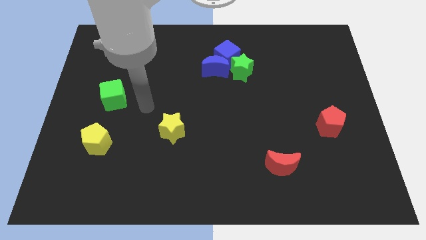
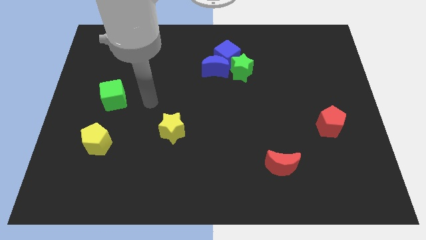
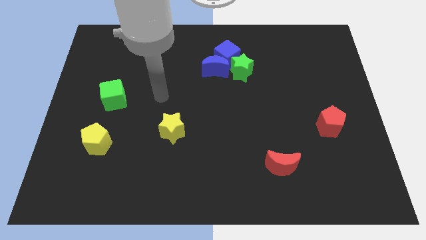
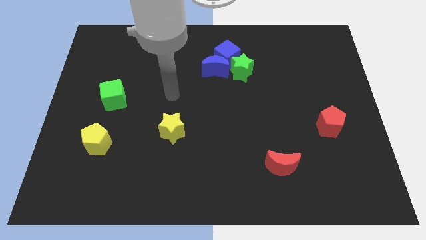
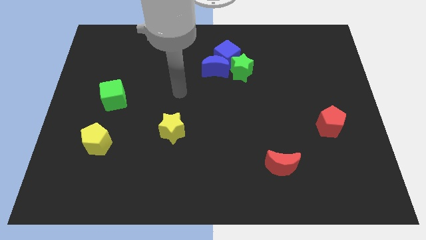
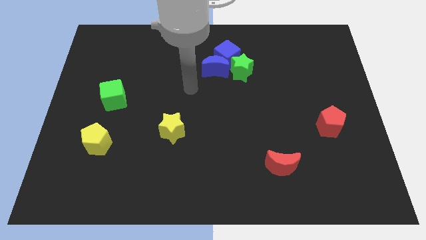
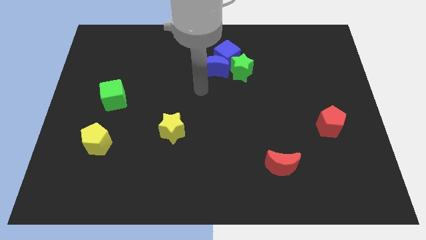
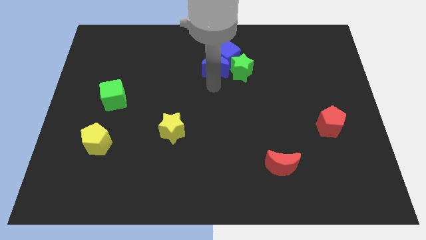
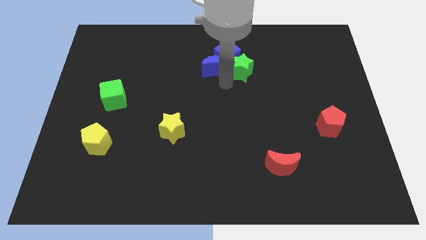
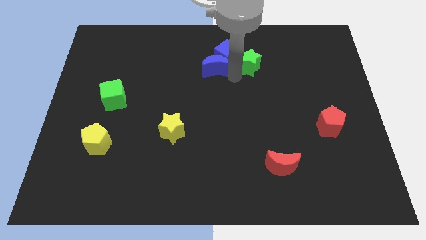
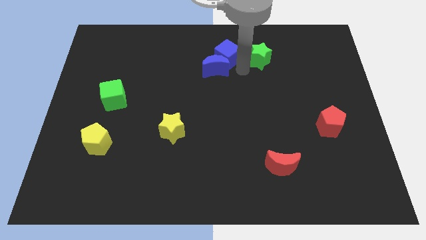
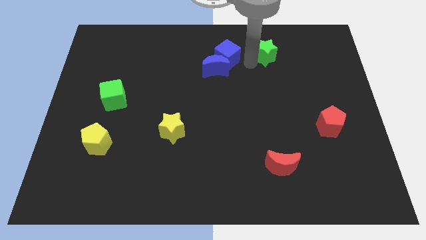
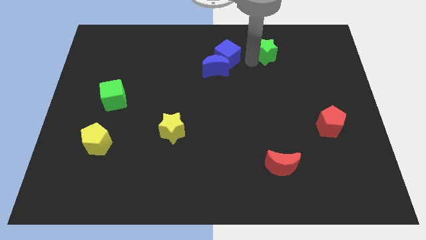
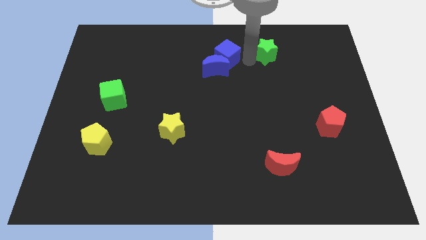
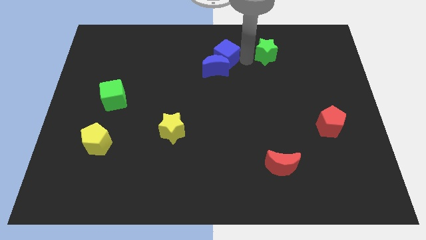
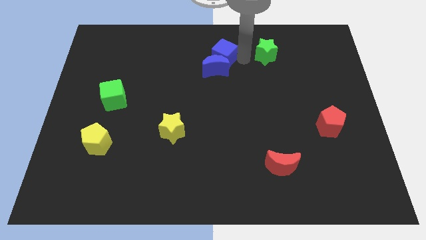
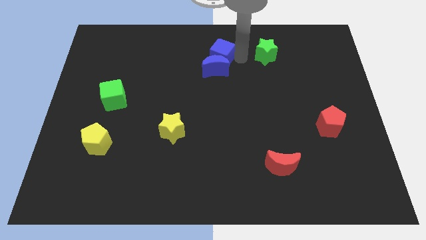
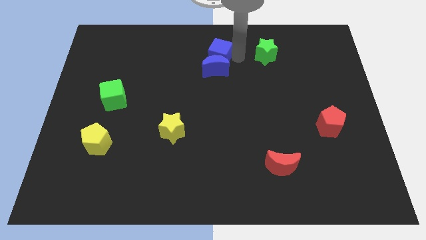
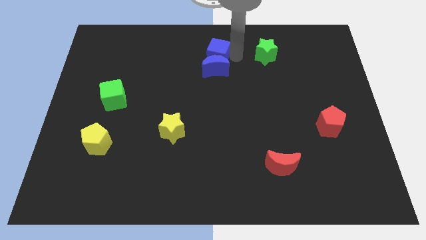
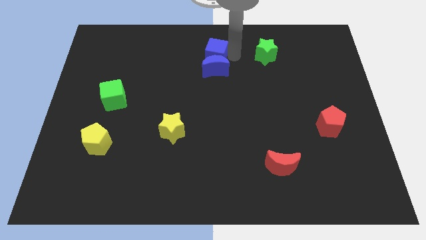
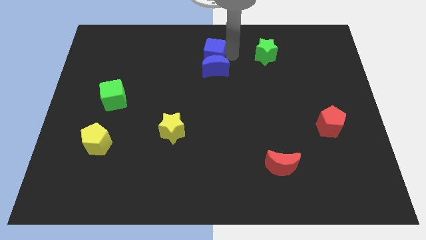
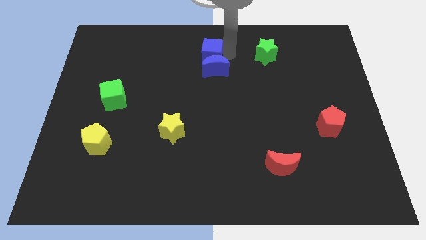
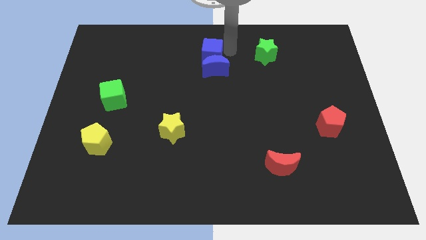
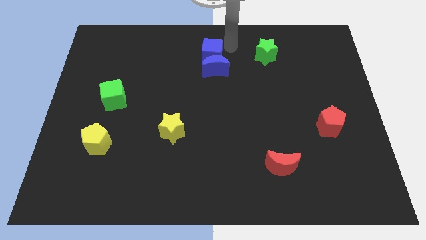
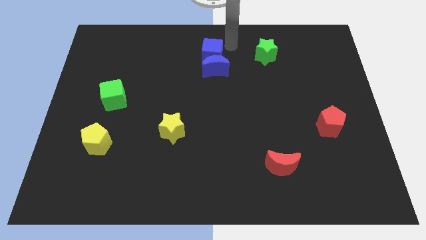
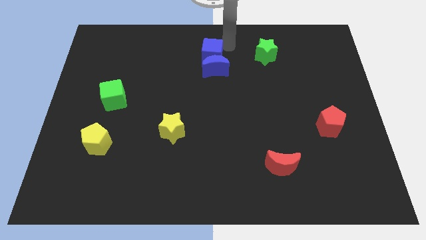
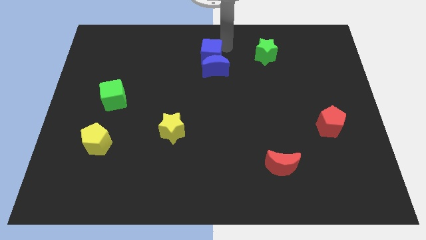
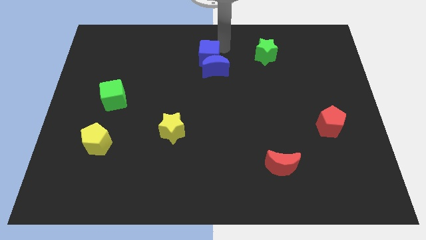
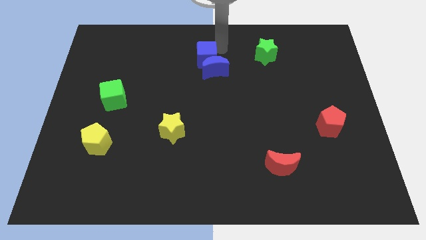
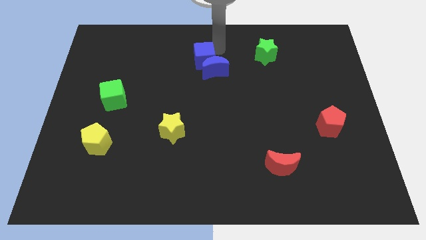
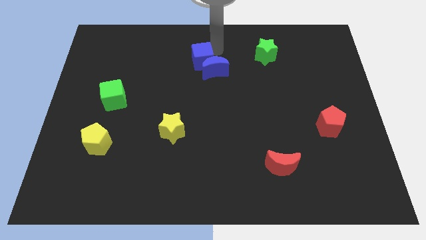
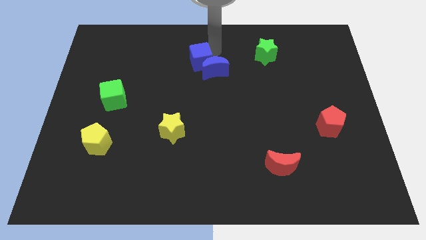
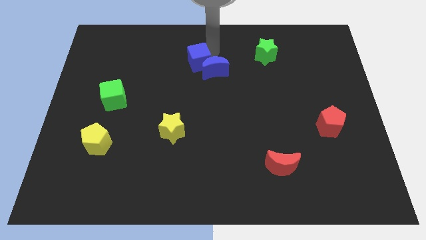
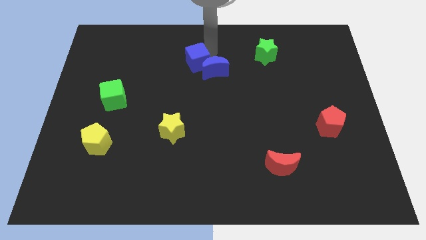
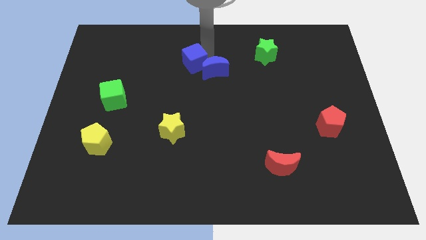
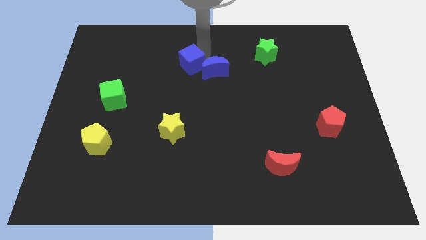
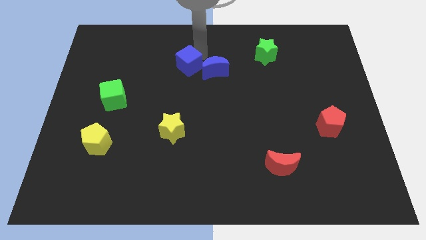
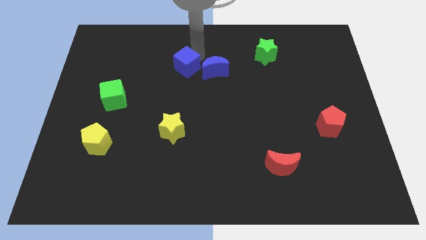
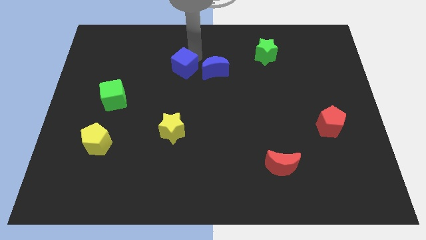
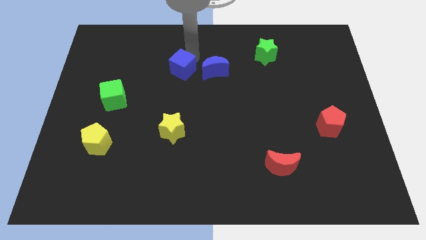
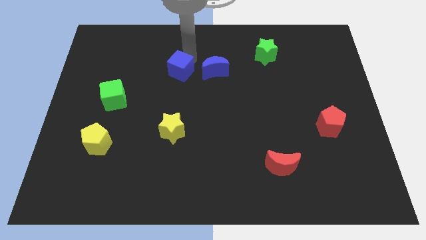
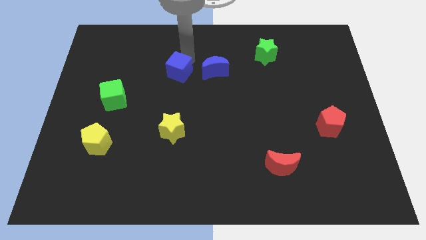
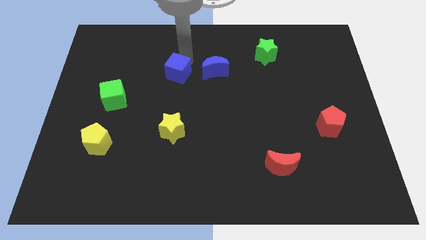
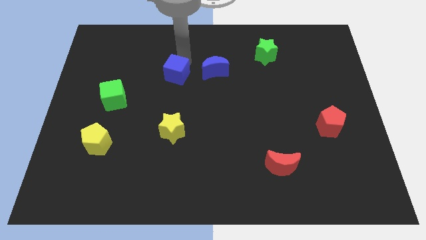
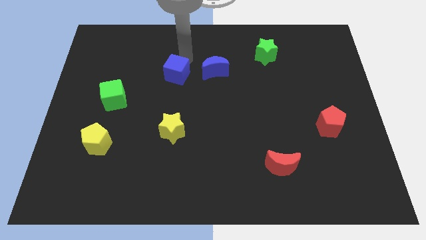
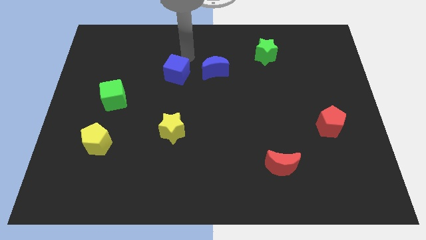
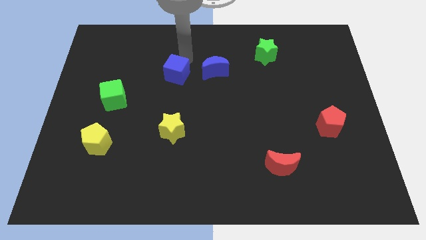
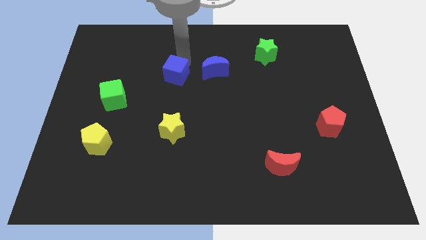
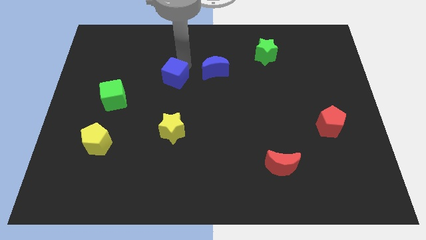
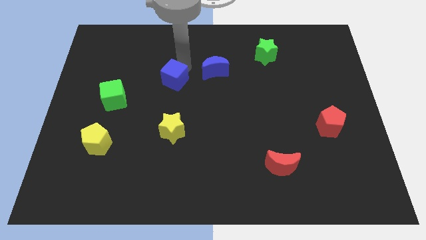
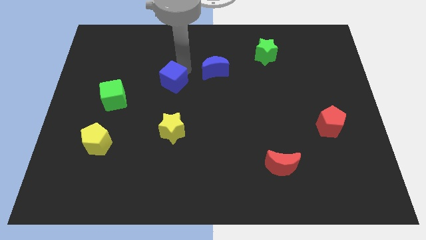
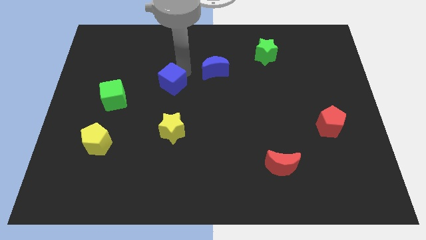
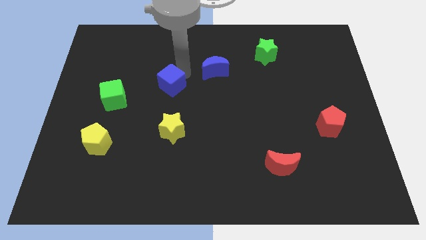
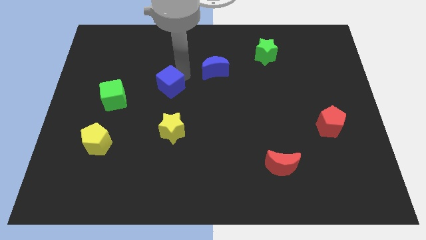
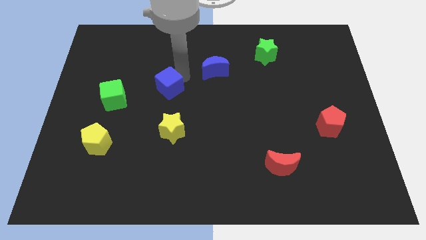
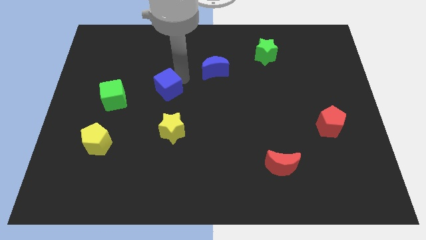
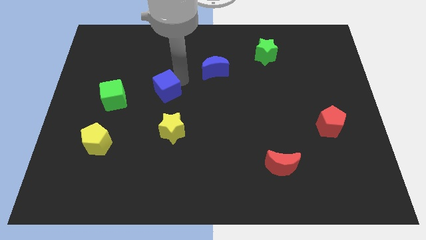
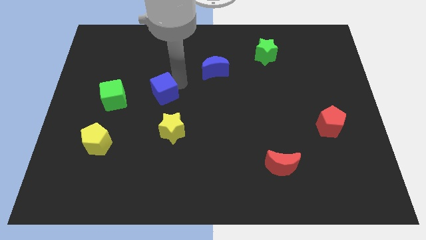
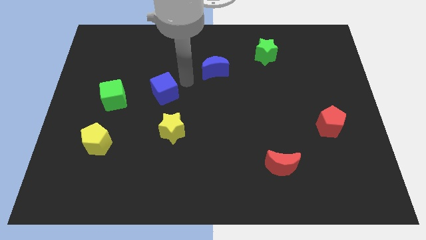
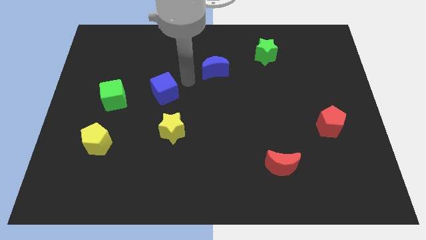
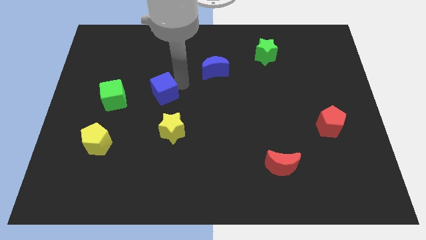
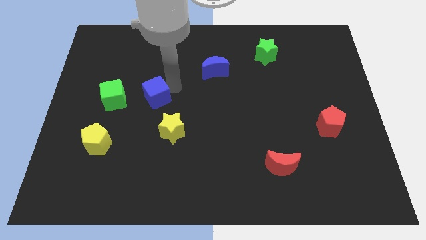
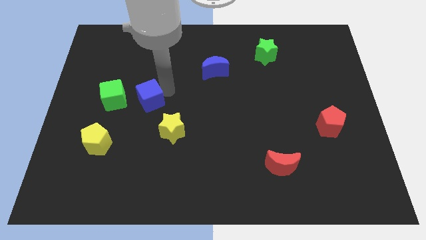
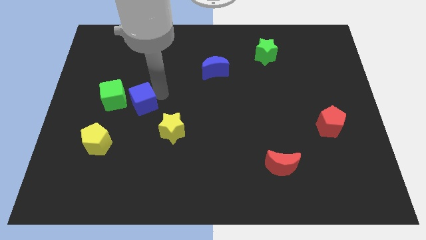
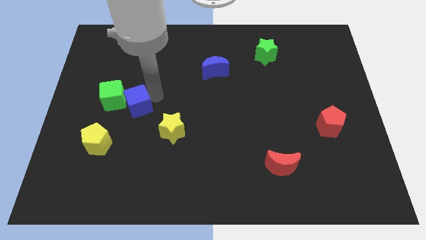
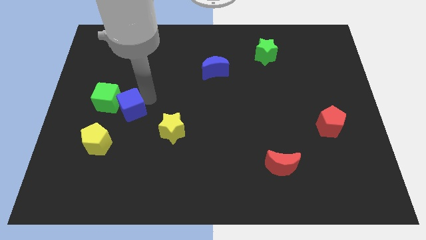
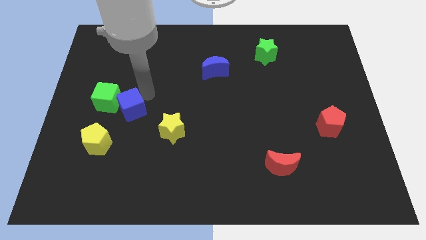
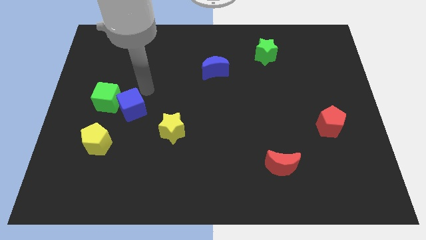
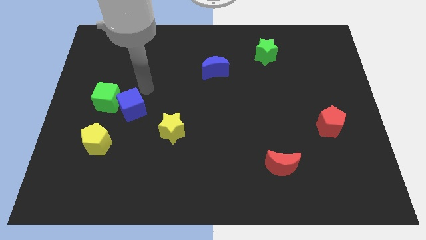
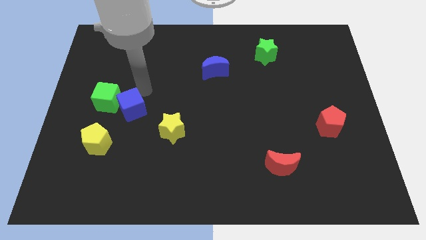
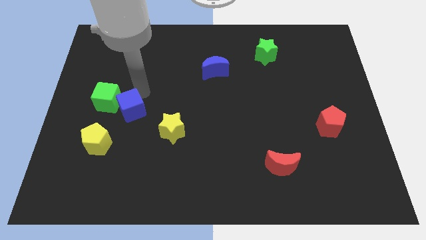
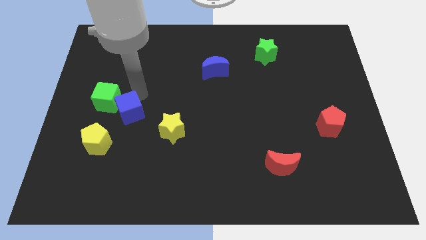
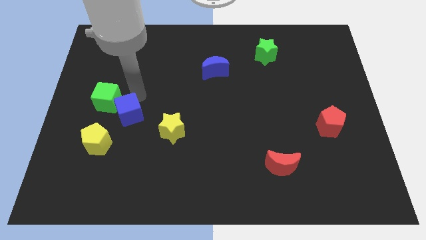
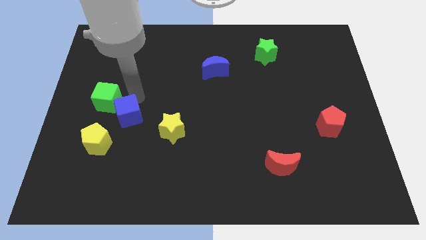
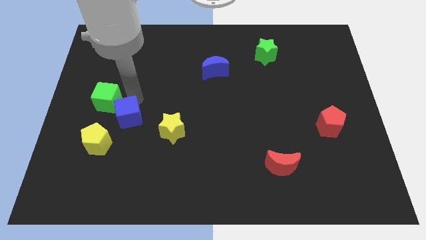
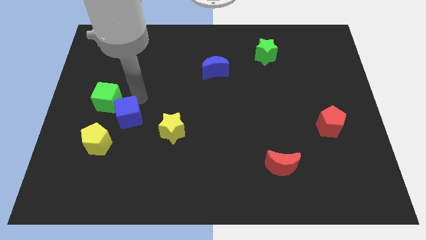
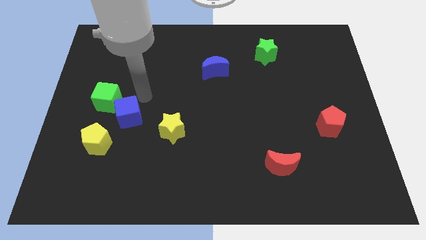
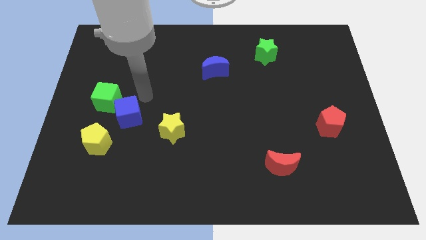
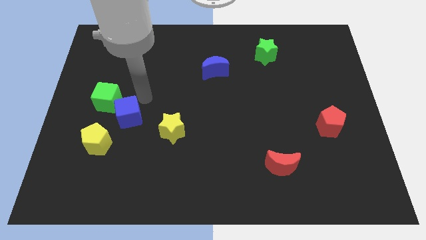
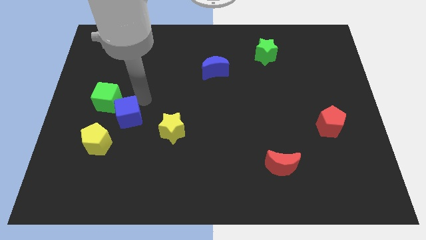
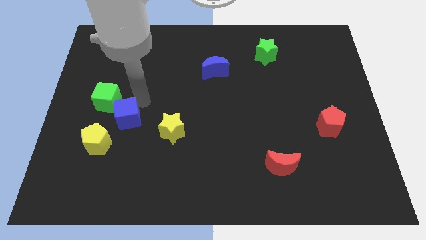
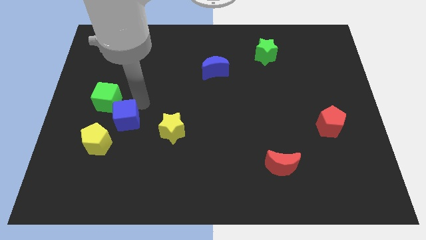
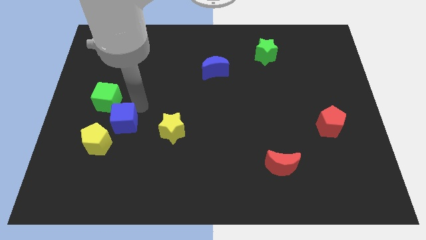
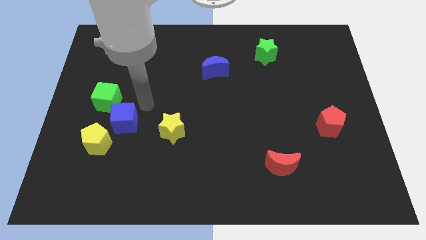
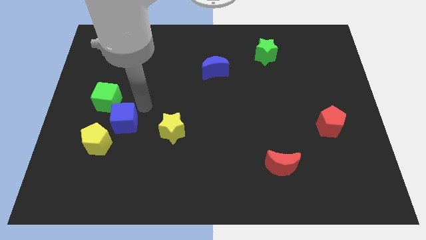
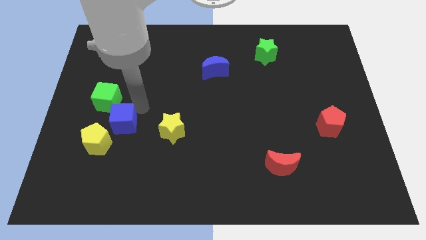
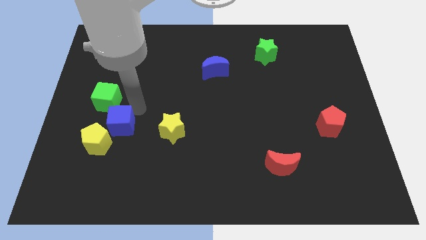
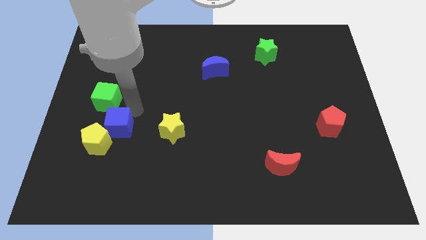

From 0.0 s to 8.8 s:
move the blue cube towards the yellow pentagon
